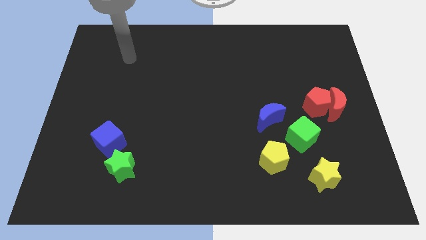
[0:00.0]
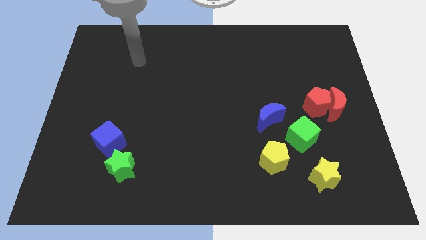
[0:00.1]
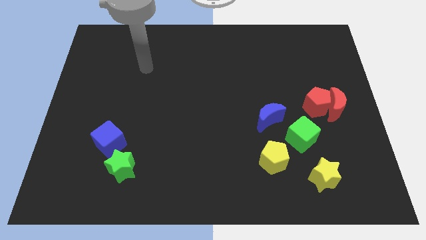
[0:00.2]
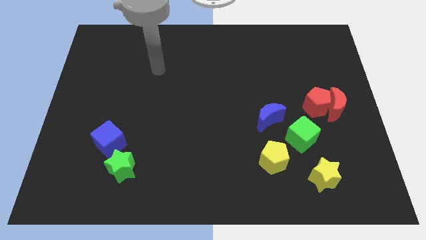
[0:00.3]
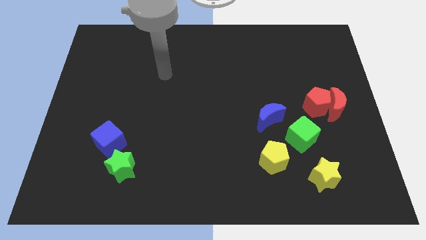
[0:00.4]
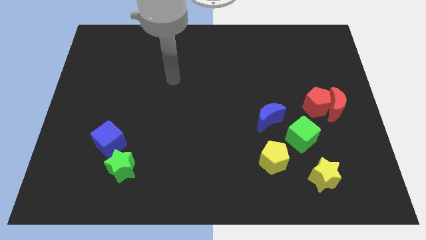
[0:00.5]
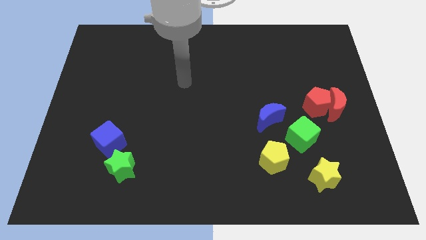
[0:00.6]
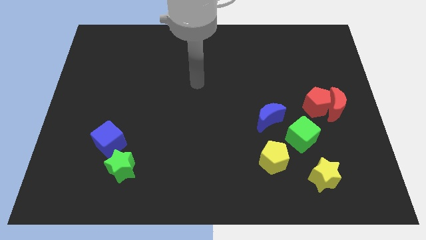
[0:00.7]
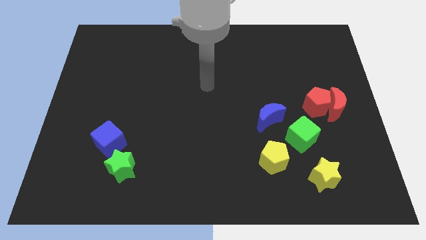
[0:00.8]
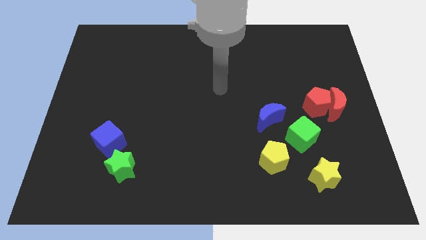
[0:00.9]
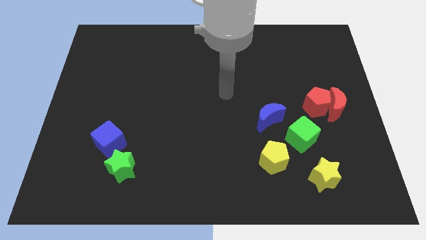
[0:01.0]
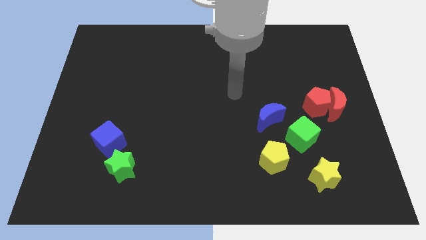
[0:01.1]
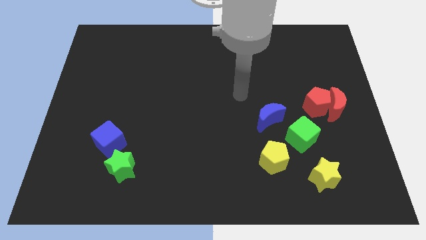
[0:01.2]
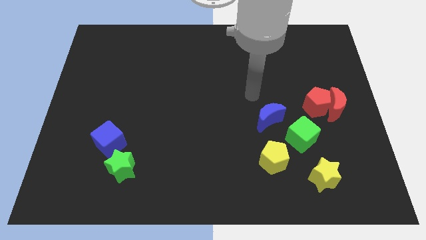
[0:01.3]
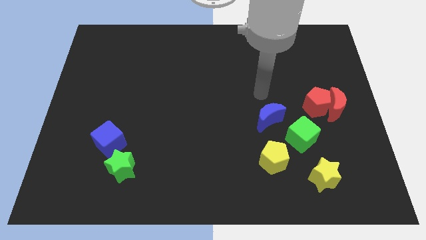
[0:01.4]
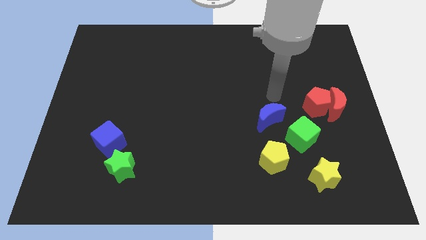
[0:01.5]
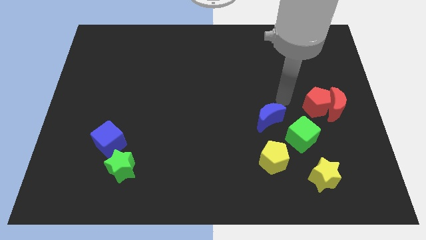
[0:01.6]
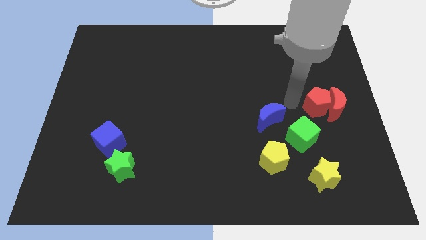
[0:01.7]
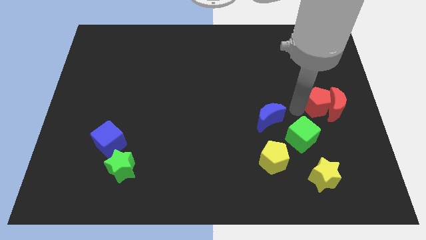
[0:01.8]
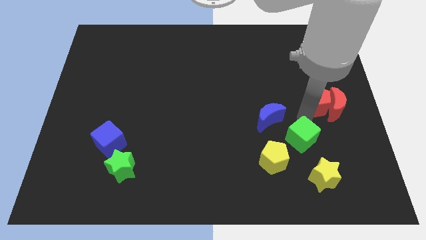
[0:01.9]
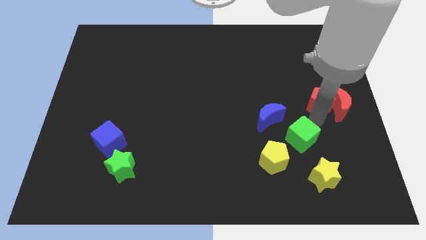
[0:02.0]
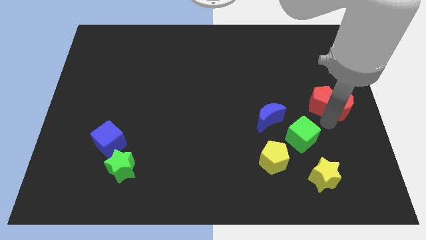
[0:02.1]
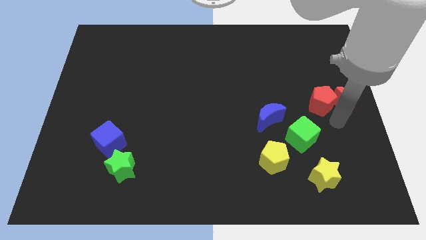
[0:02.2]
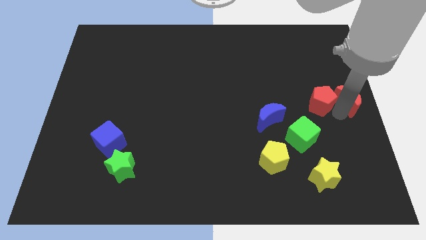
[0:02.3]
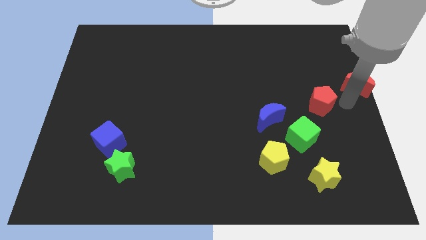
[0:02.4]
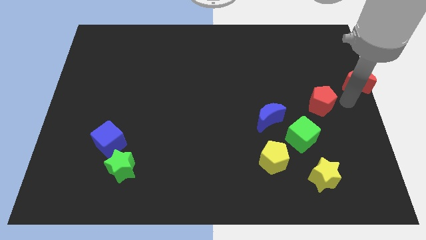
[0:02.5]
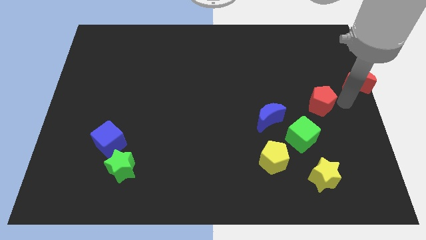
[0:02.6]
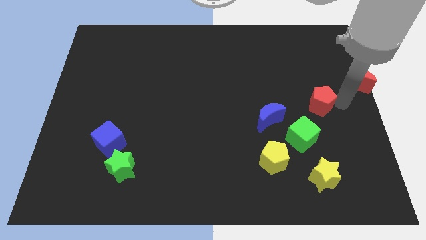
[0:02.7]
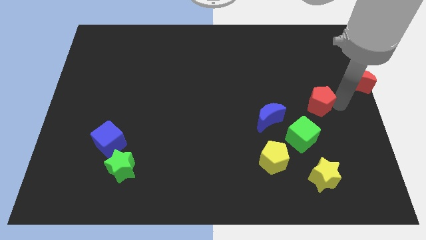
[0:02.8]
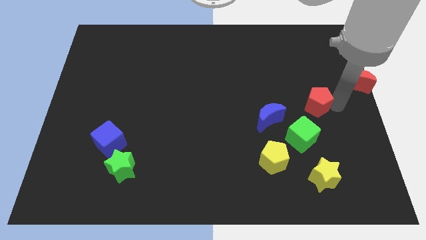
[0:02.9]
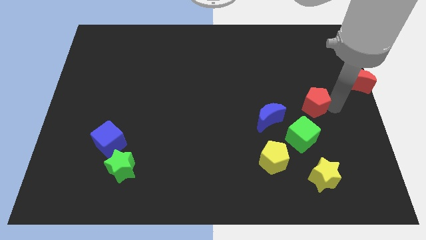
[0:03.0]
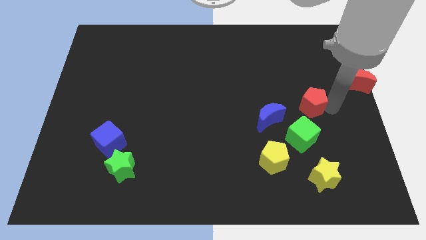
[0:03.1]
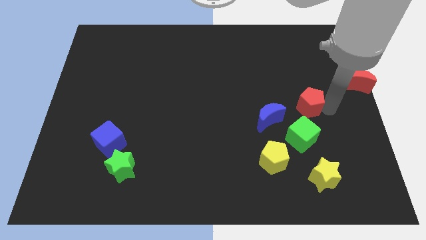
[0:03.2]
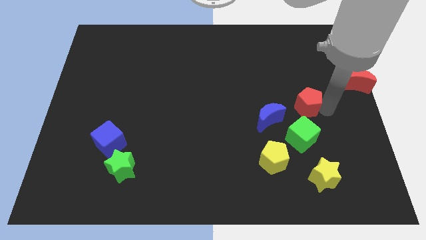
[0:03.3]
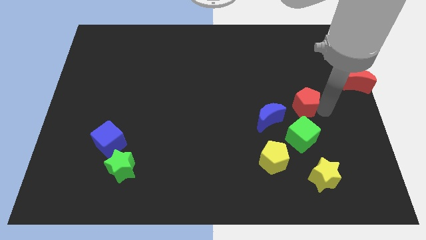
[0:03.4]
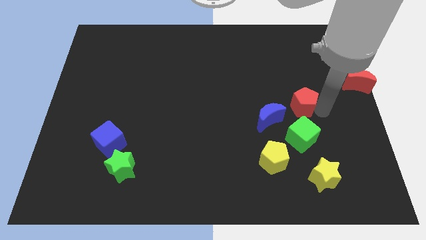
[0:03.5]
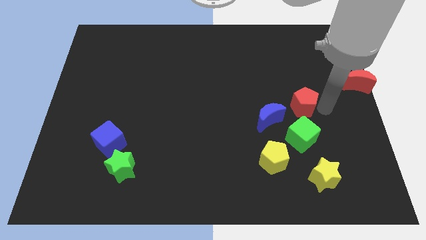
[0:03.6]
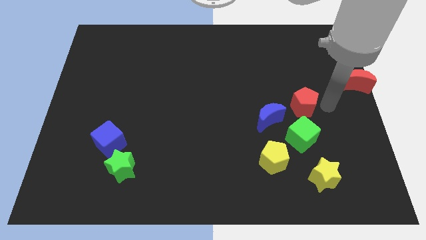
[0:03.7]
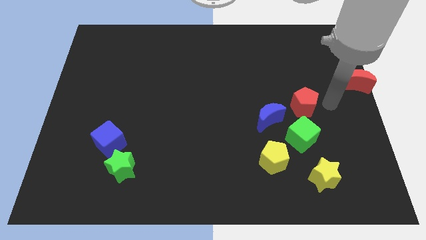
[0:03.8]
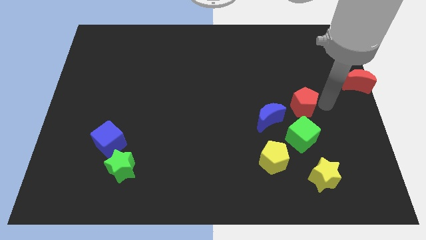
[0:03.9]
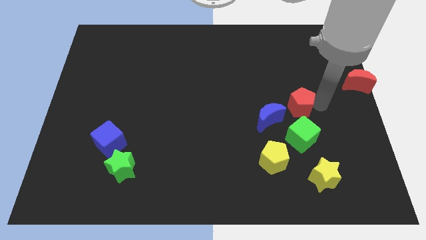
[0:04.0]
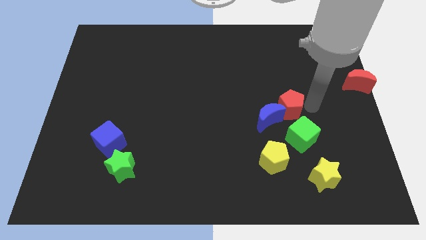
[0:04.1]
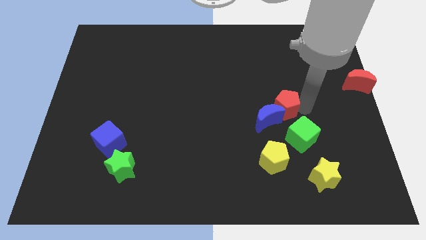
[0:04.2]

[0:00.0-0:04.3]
move the red pentagon slightly to the left

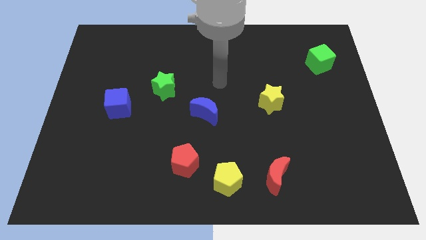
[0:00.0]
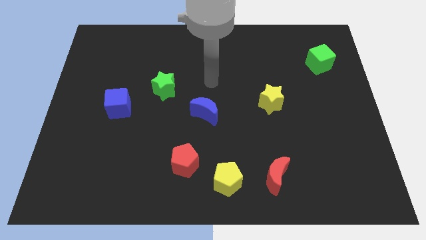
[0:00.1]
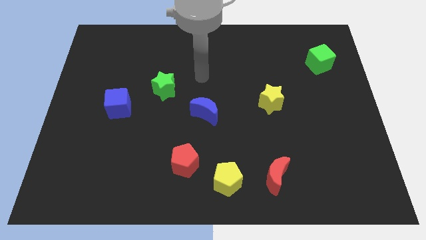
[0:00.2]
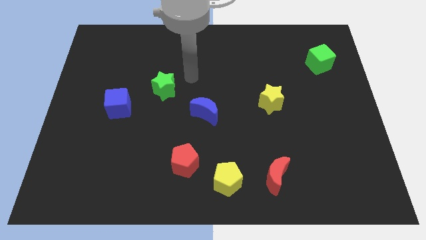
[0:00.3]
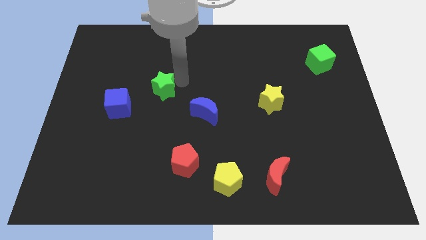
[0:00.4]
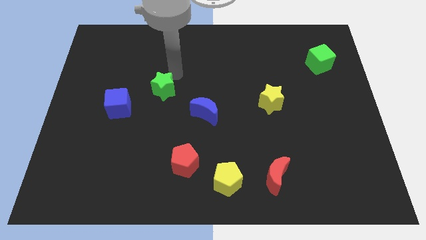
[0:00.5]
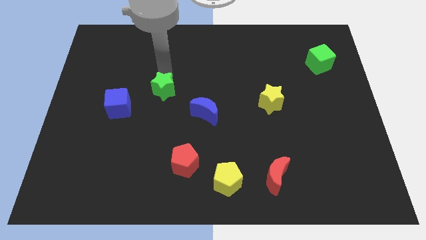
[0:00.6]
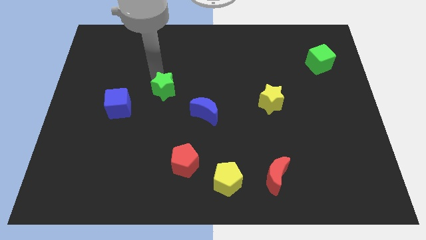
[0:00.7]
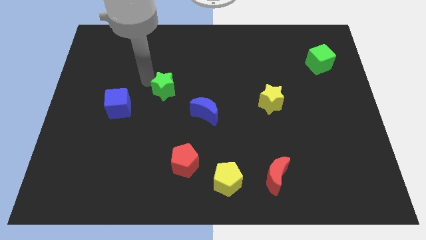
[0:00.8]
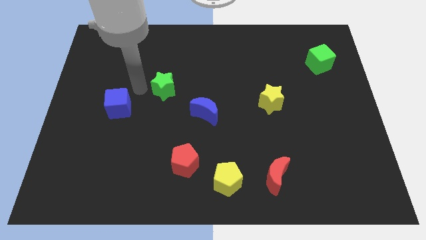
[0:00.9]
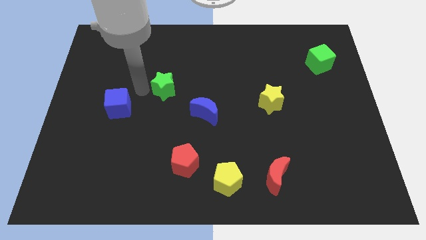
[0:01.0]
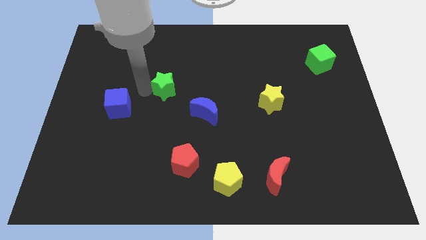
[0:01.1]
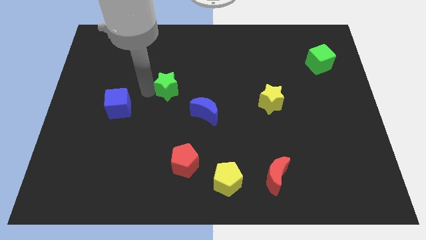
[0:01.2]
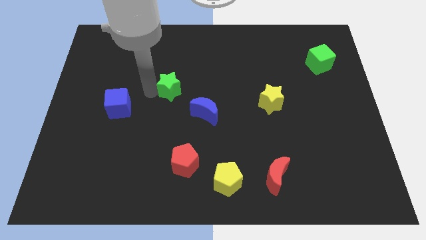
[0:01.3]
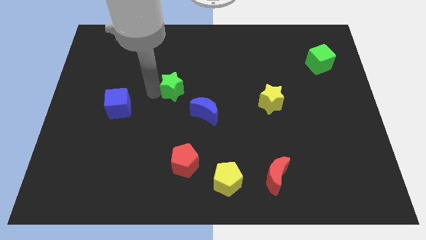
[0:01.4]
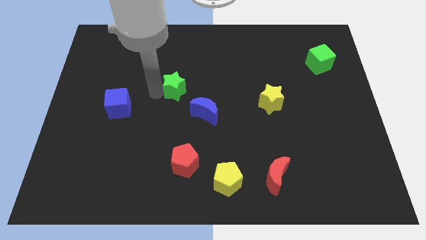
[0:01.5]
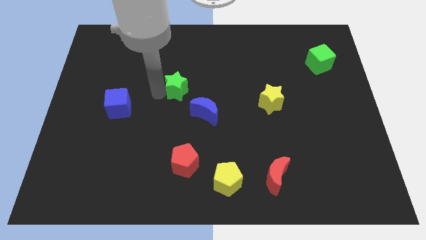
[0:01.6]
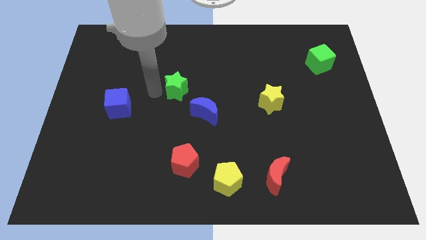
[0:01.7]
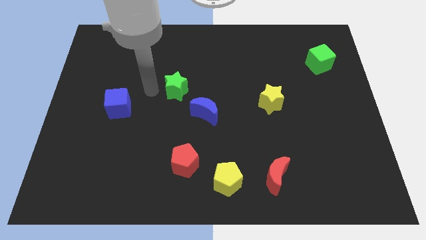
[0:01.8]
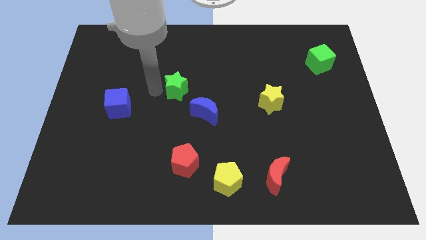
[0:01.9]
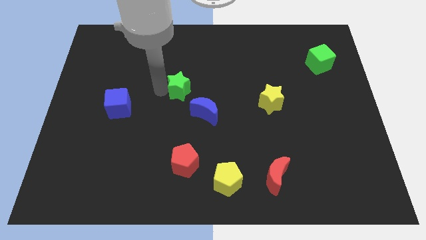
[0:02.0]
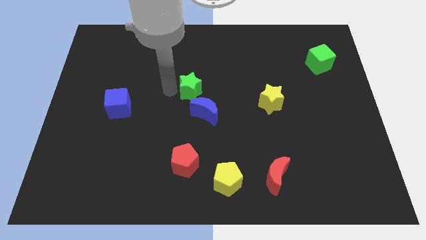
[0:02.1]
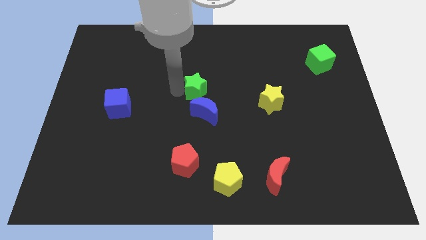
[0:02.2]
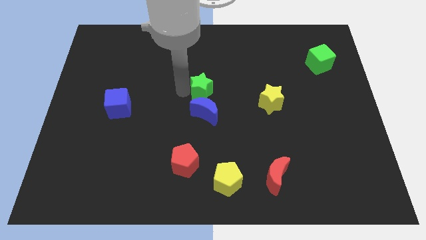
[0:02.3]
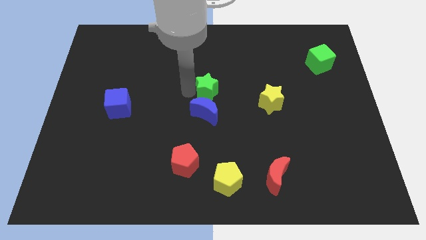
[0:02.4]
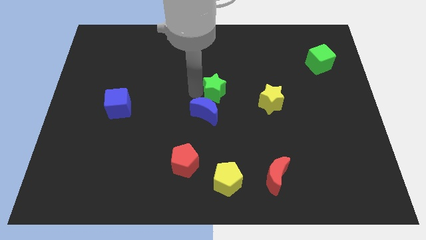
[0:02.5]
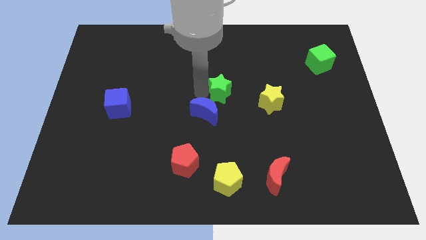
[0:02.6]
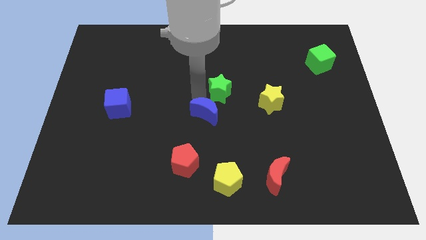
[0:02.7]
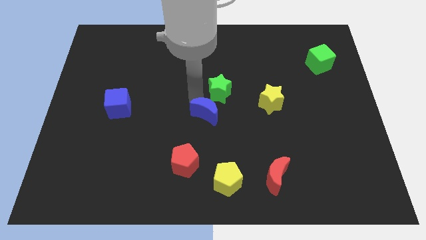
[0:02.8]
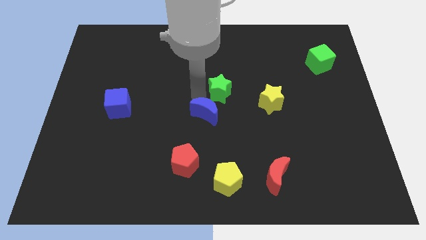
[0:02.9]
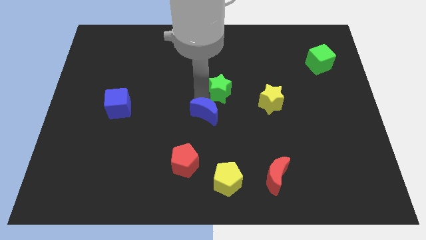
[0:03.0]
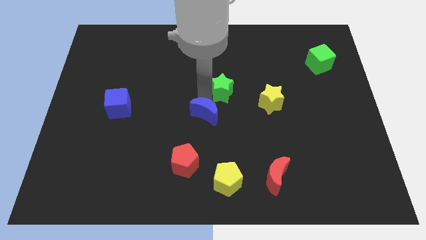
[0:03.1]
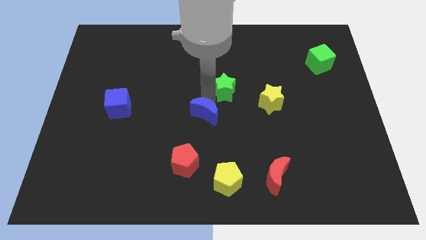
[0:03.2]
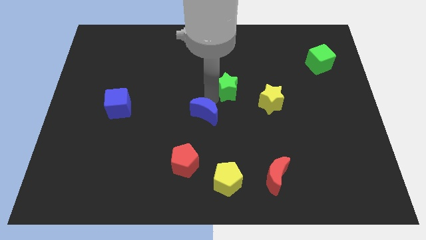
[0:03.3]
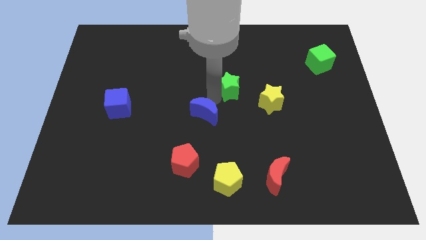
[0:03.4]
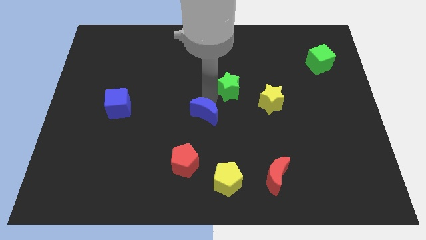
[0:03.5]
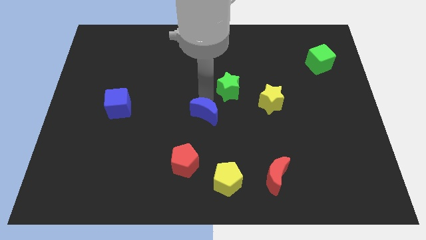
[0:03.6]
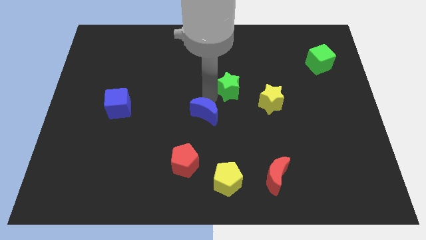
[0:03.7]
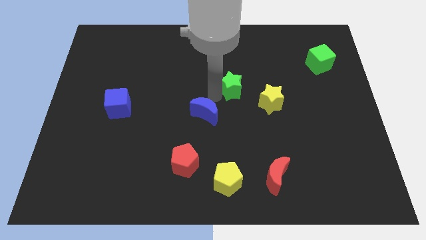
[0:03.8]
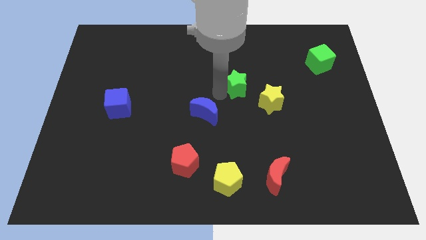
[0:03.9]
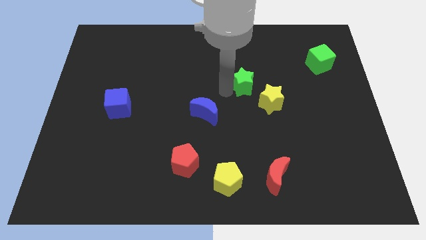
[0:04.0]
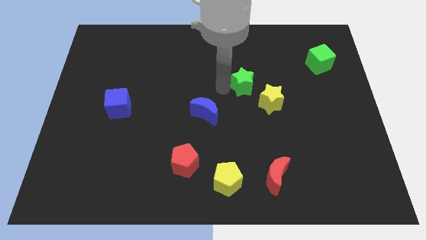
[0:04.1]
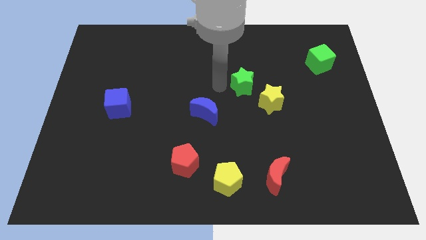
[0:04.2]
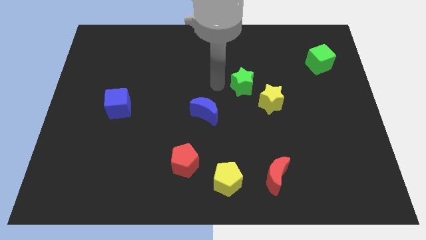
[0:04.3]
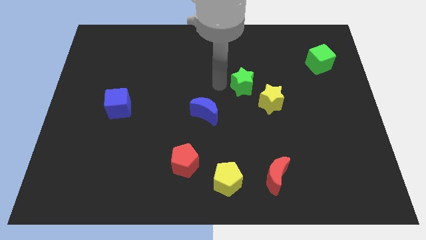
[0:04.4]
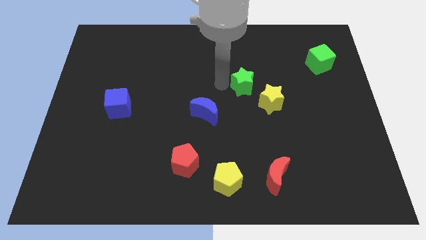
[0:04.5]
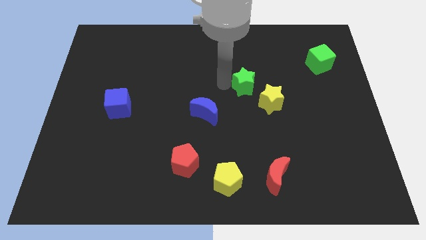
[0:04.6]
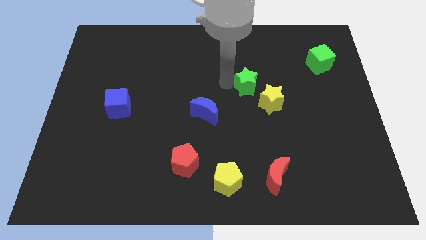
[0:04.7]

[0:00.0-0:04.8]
slide the green star right
